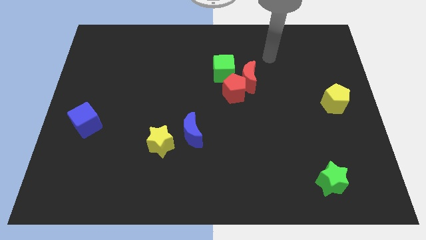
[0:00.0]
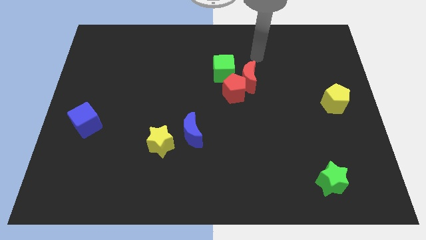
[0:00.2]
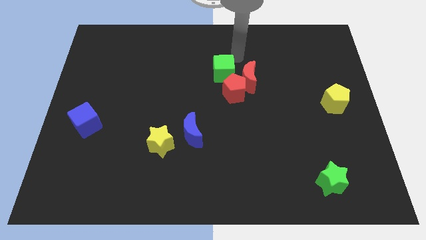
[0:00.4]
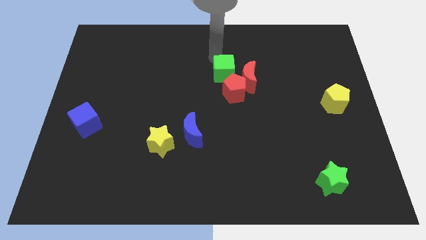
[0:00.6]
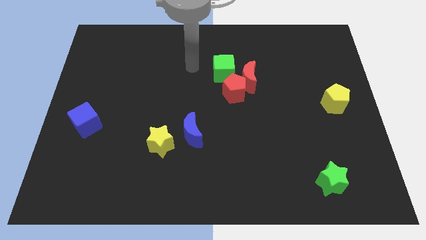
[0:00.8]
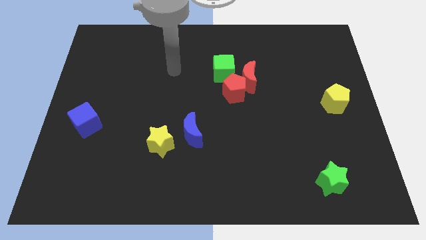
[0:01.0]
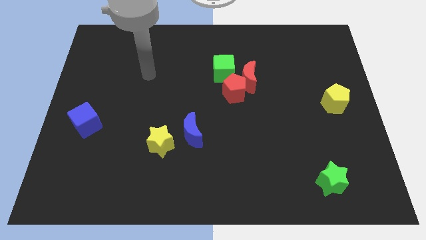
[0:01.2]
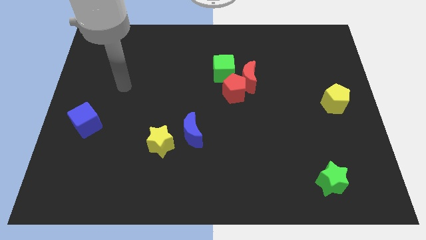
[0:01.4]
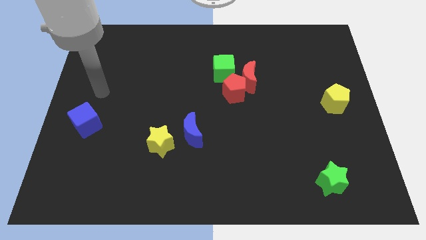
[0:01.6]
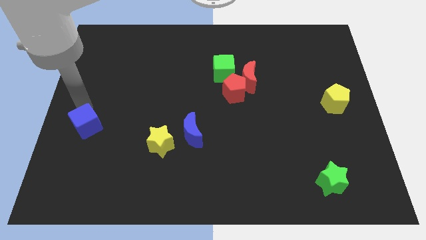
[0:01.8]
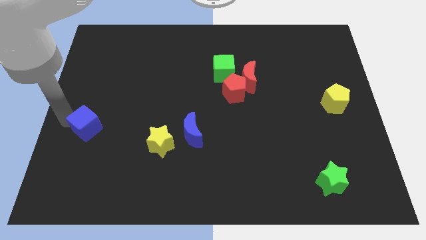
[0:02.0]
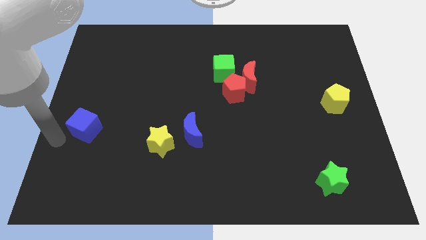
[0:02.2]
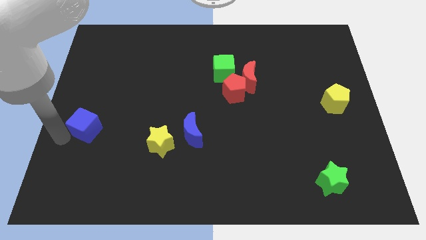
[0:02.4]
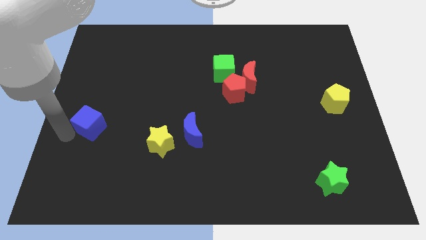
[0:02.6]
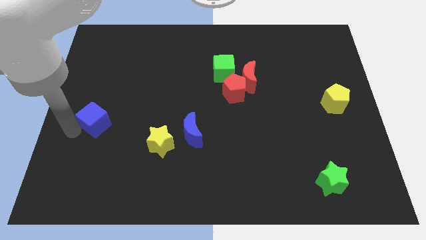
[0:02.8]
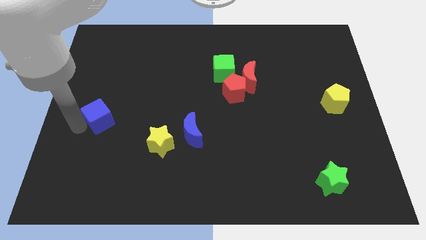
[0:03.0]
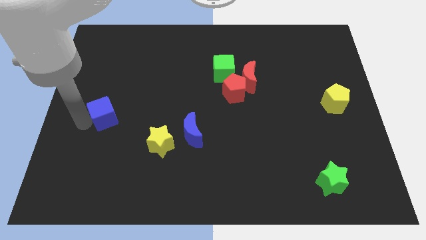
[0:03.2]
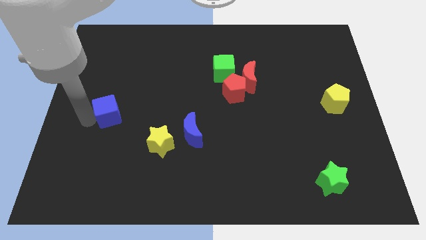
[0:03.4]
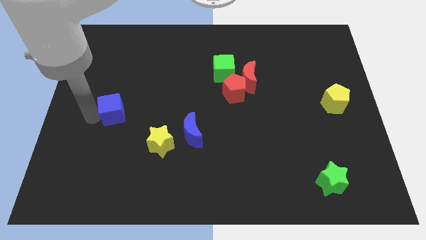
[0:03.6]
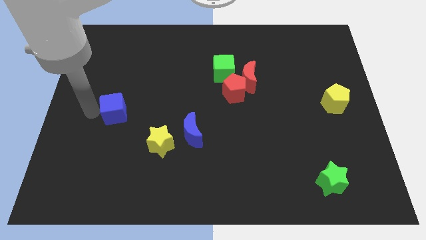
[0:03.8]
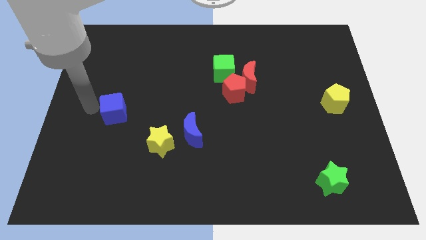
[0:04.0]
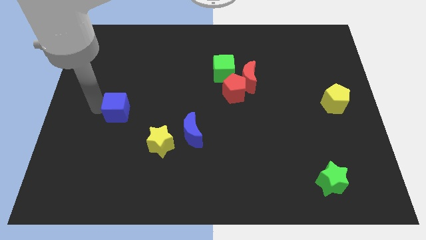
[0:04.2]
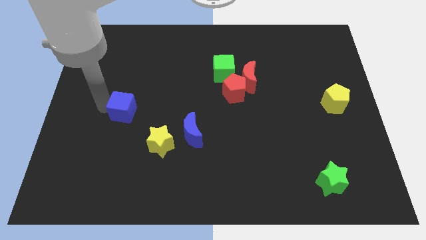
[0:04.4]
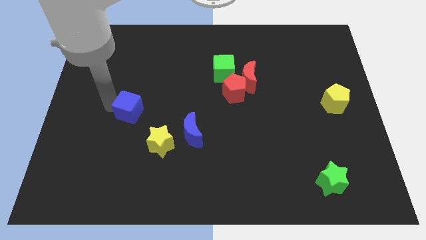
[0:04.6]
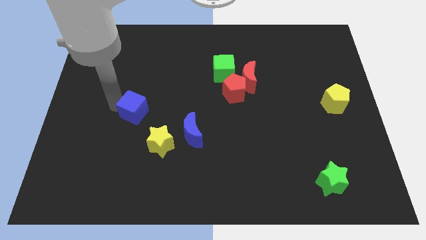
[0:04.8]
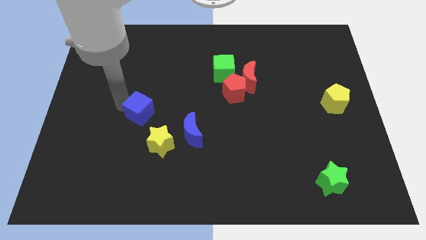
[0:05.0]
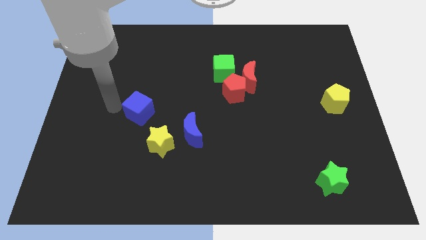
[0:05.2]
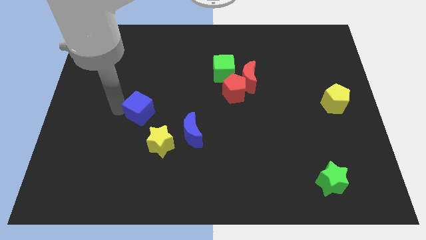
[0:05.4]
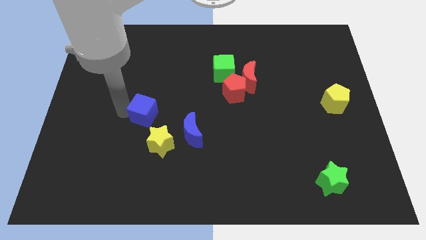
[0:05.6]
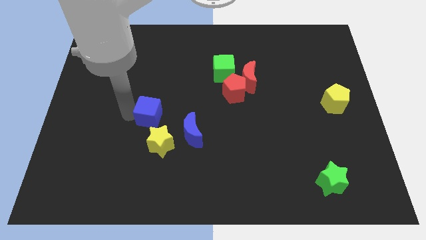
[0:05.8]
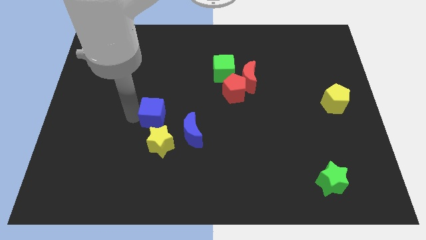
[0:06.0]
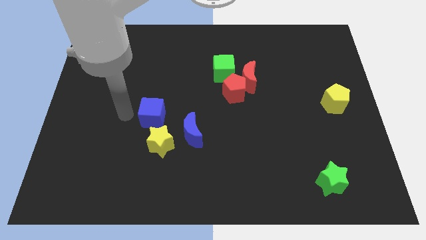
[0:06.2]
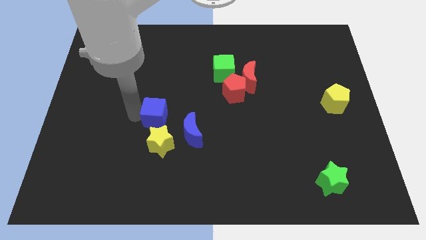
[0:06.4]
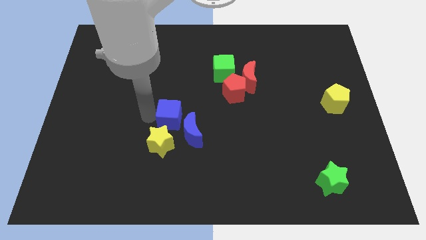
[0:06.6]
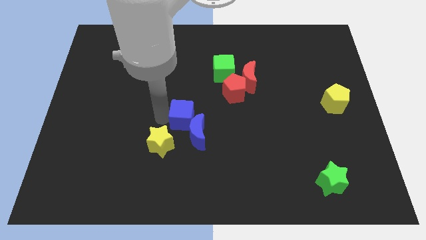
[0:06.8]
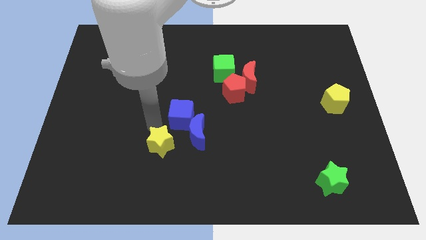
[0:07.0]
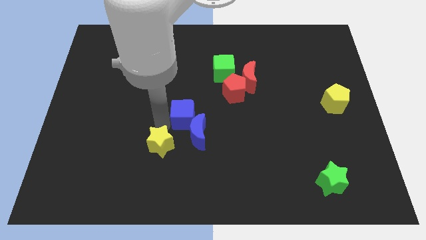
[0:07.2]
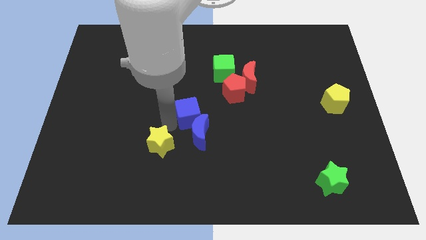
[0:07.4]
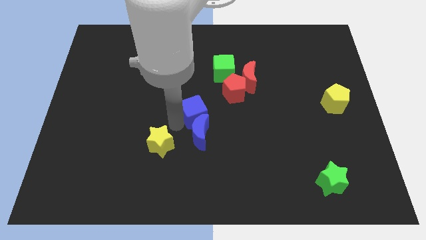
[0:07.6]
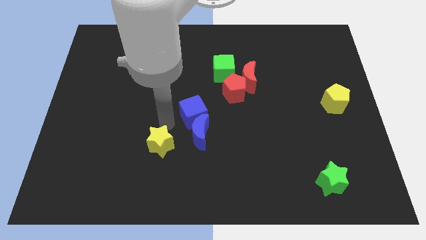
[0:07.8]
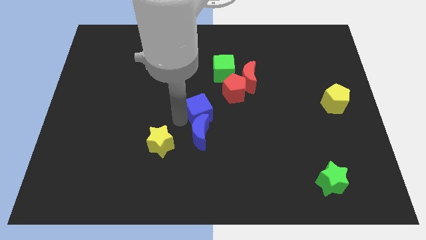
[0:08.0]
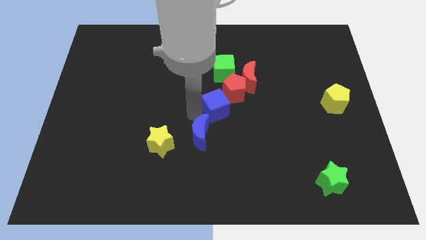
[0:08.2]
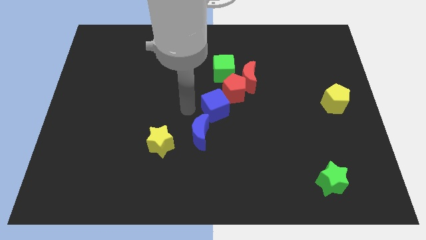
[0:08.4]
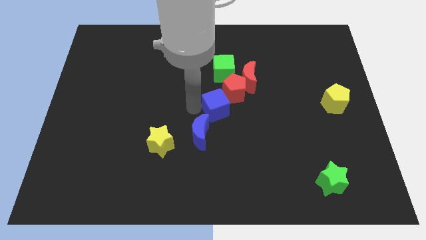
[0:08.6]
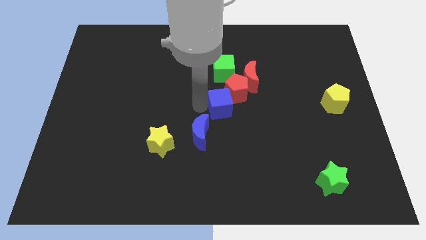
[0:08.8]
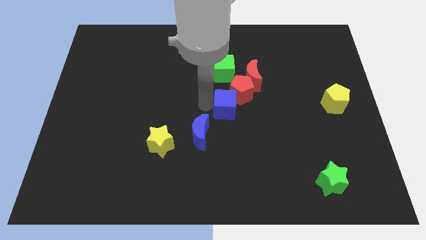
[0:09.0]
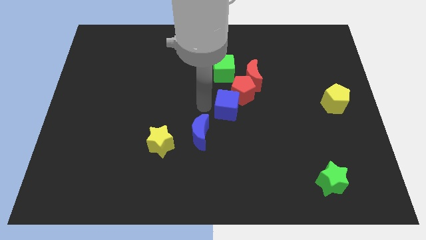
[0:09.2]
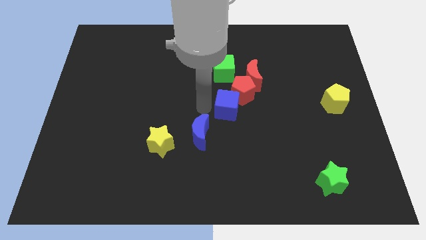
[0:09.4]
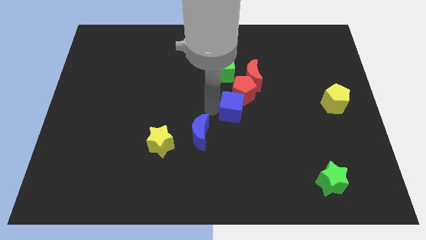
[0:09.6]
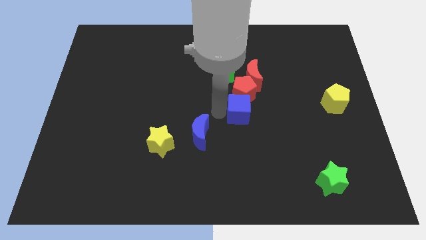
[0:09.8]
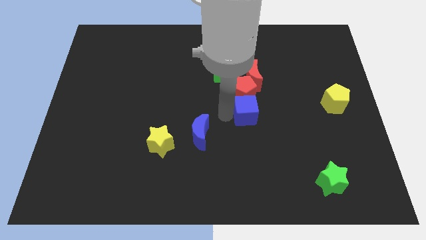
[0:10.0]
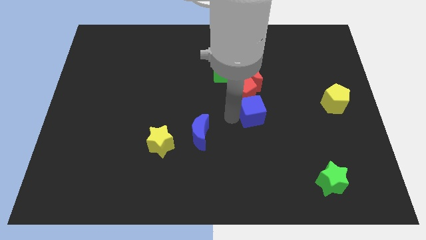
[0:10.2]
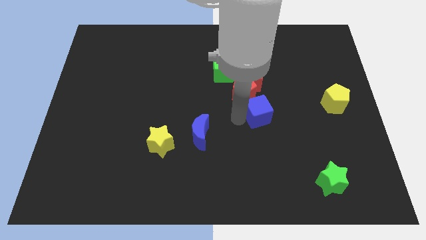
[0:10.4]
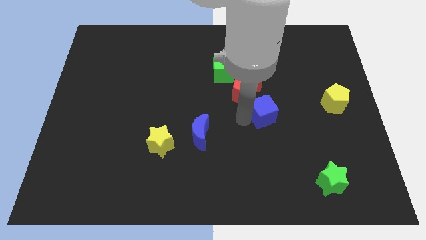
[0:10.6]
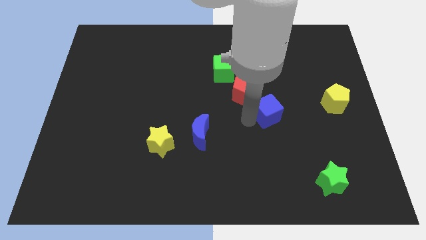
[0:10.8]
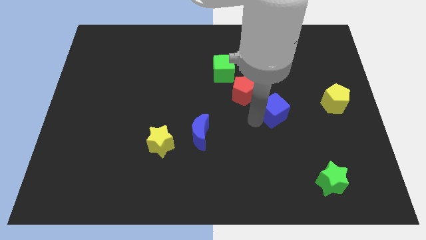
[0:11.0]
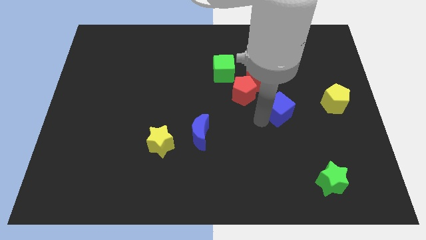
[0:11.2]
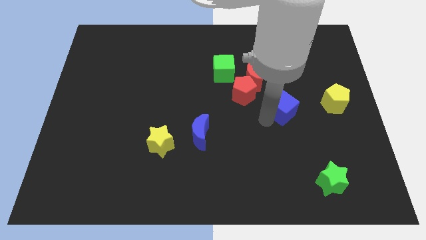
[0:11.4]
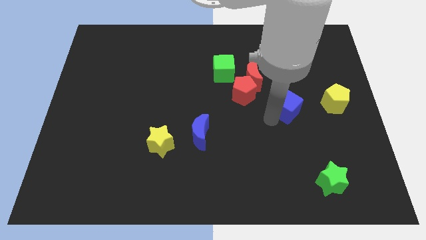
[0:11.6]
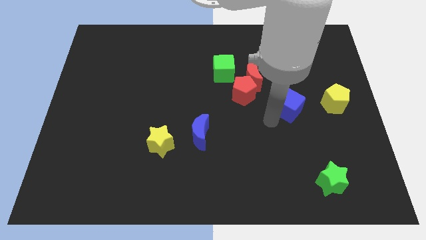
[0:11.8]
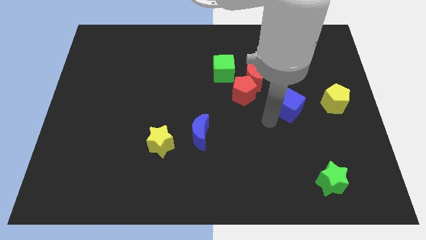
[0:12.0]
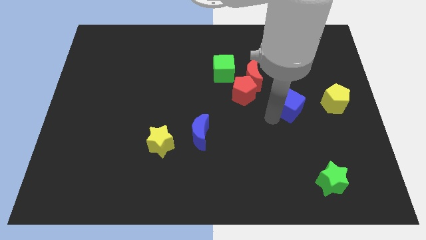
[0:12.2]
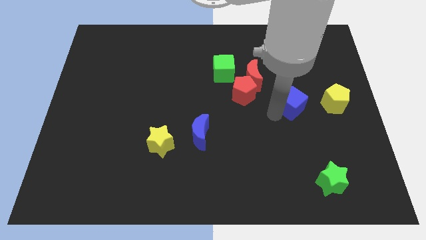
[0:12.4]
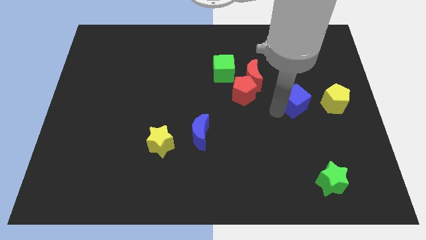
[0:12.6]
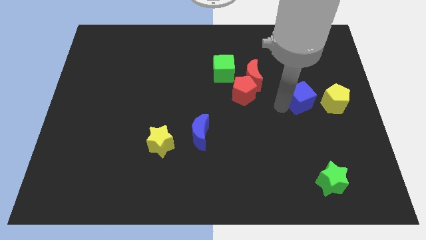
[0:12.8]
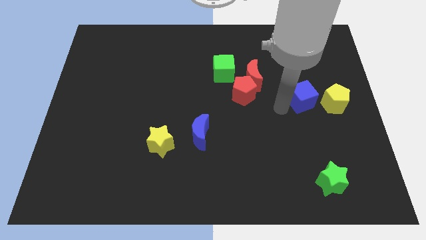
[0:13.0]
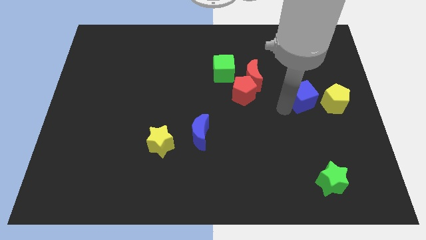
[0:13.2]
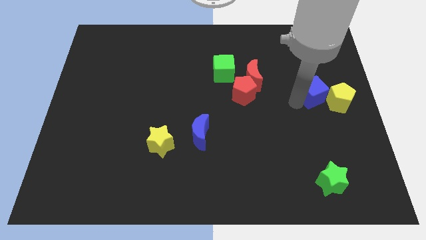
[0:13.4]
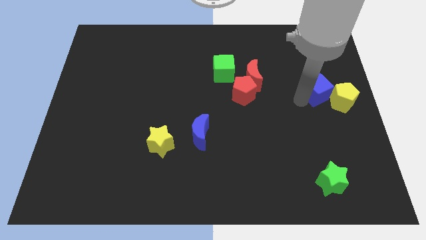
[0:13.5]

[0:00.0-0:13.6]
move the blue cube to the center right
